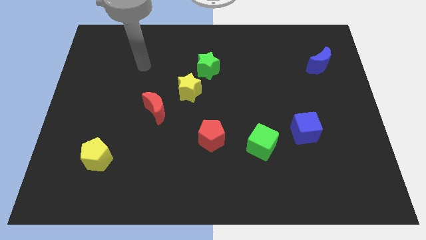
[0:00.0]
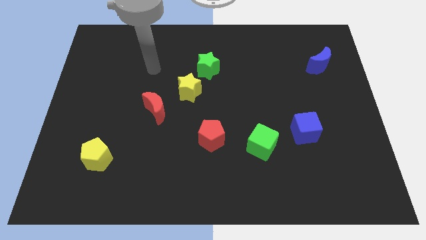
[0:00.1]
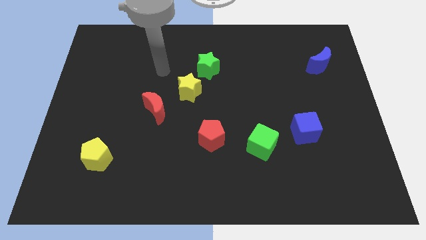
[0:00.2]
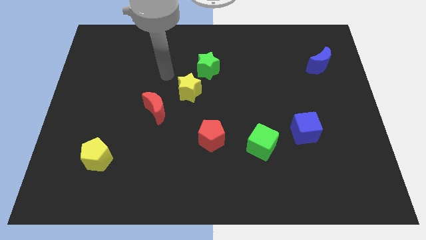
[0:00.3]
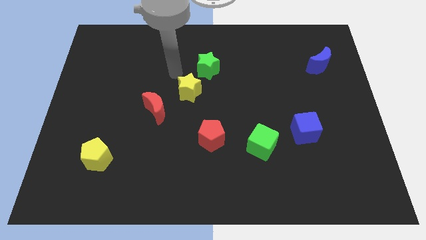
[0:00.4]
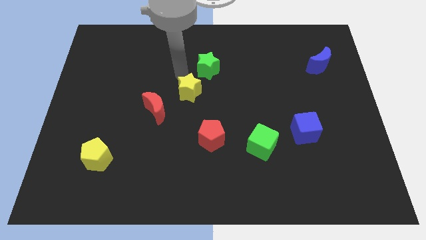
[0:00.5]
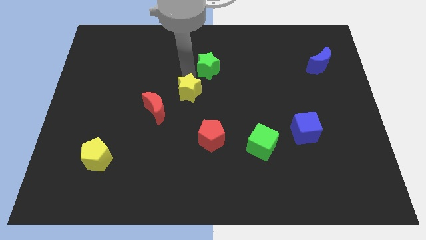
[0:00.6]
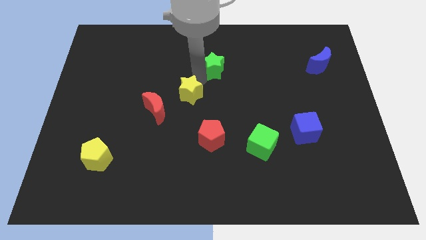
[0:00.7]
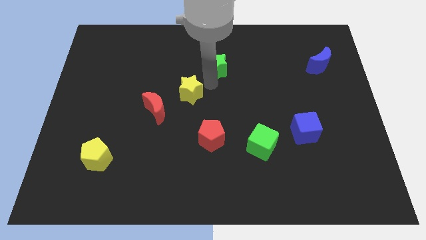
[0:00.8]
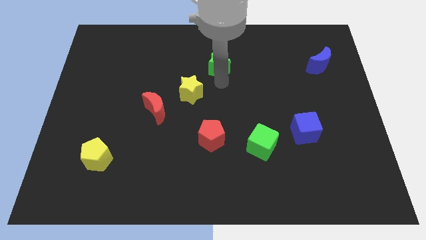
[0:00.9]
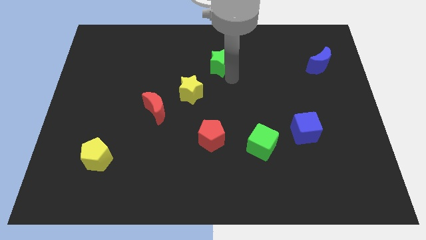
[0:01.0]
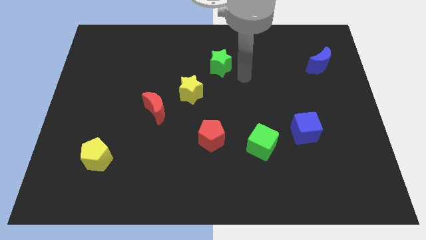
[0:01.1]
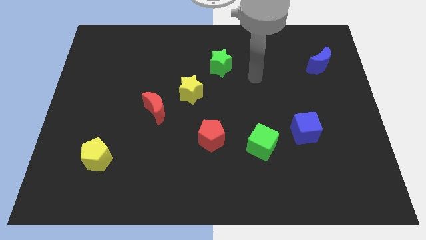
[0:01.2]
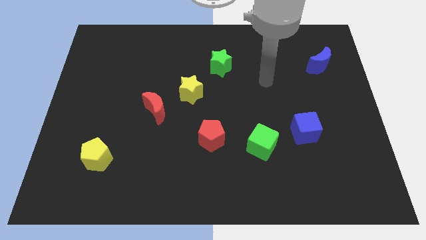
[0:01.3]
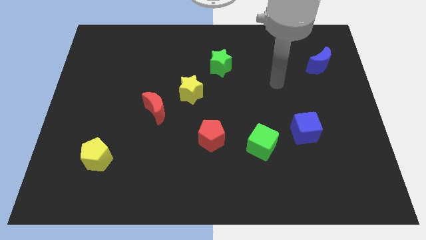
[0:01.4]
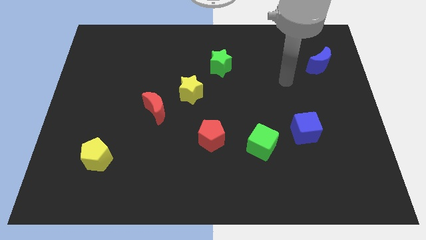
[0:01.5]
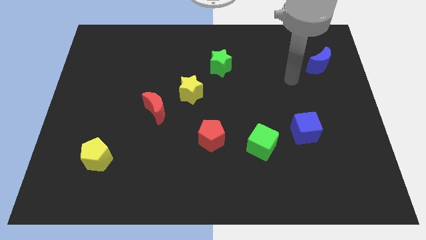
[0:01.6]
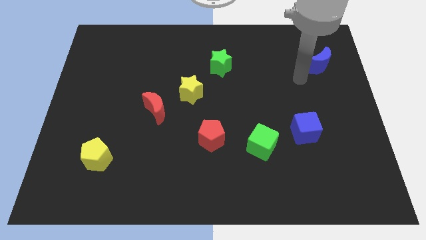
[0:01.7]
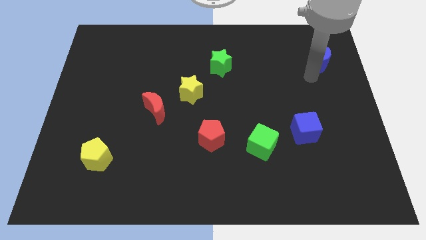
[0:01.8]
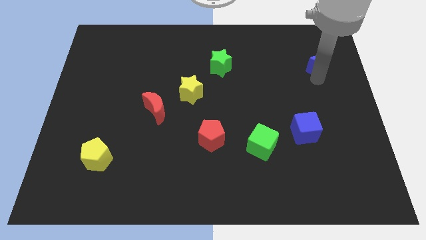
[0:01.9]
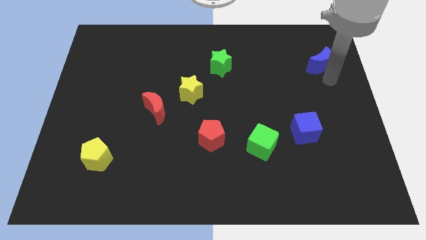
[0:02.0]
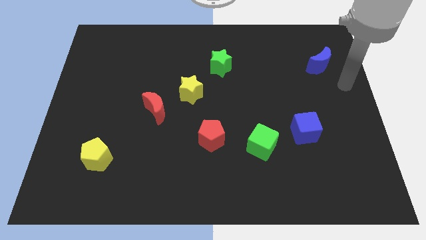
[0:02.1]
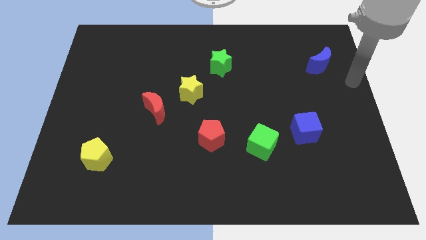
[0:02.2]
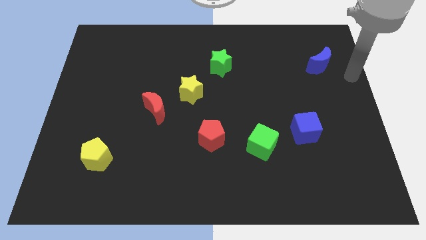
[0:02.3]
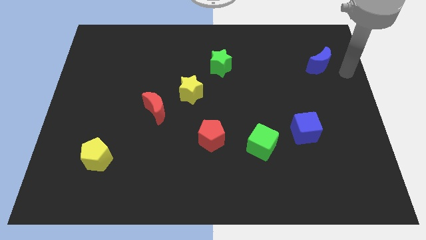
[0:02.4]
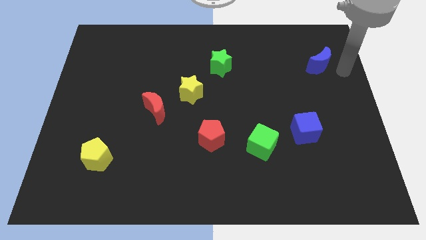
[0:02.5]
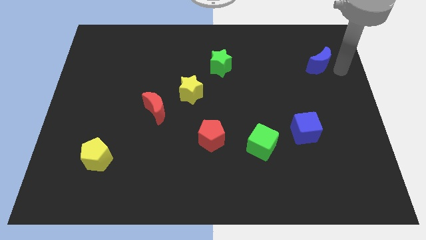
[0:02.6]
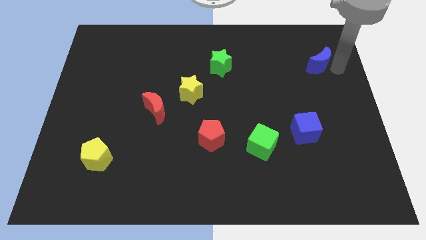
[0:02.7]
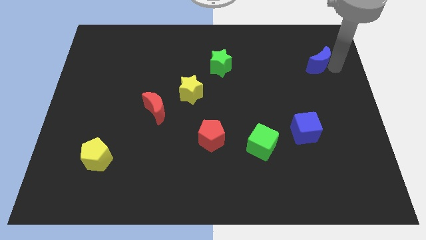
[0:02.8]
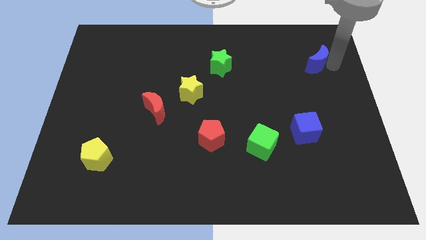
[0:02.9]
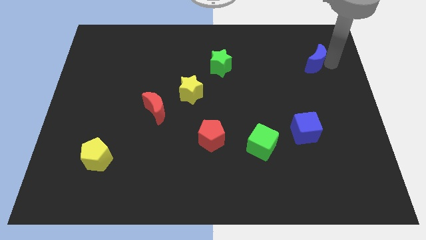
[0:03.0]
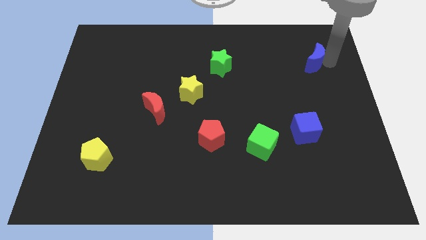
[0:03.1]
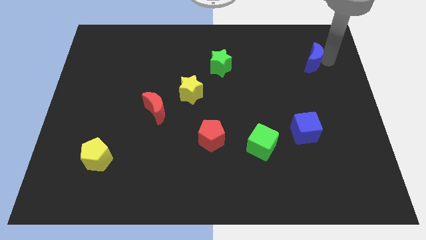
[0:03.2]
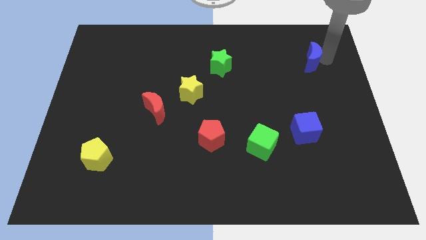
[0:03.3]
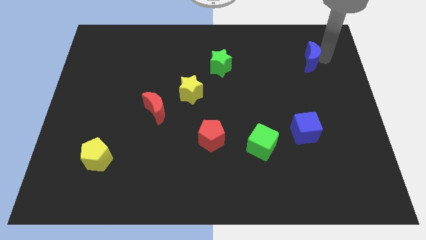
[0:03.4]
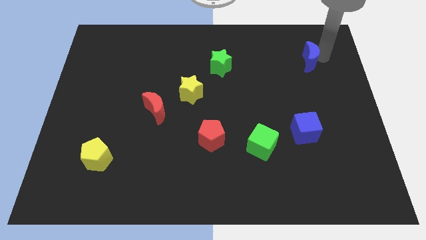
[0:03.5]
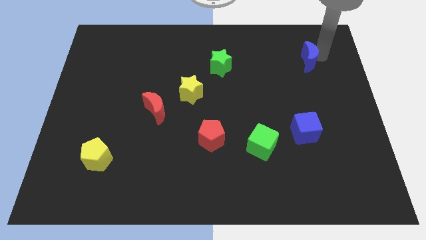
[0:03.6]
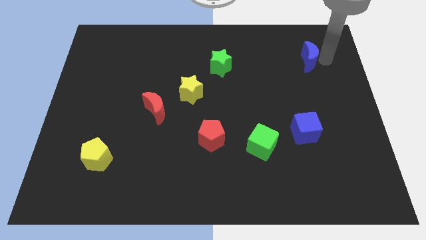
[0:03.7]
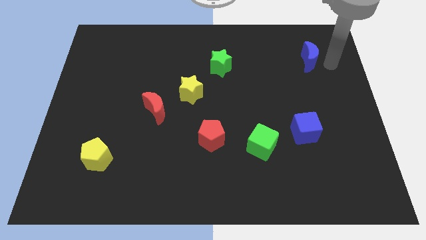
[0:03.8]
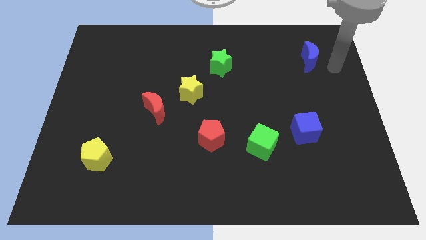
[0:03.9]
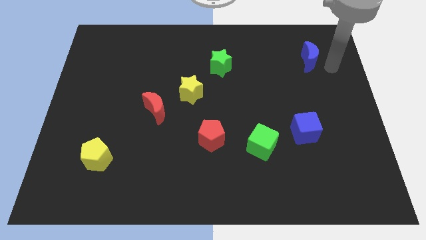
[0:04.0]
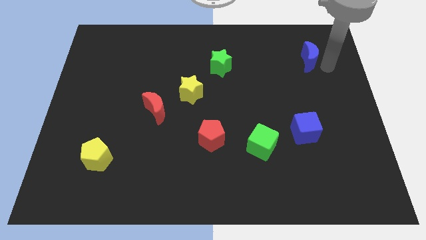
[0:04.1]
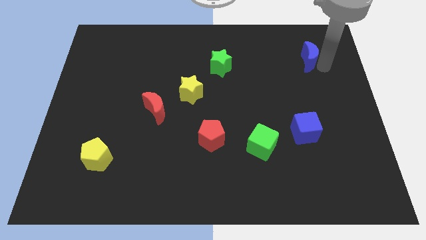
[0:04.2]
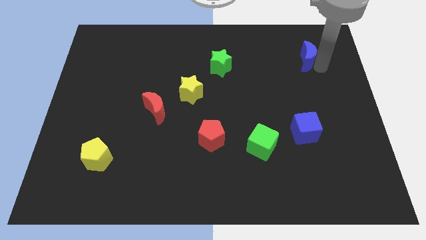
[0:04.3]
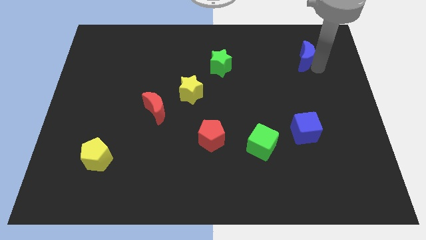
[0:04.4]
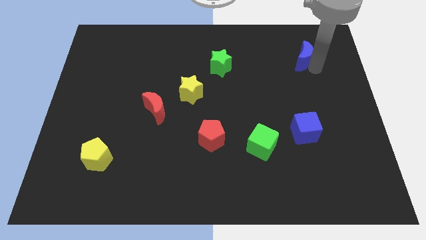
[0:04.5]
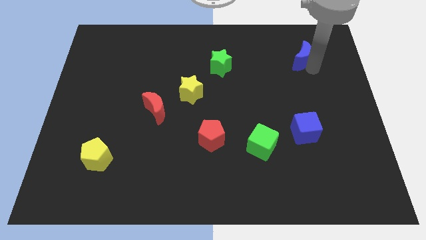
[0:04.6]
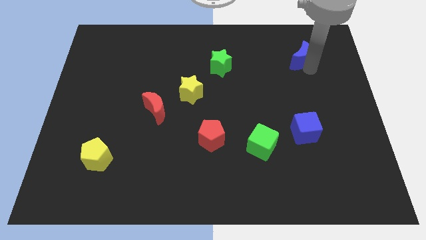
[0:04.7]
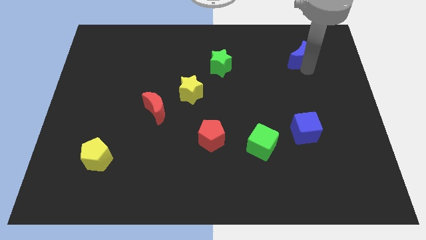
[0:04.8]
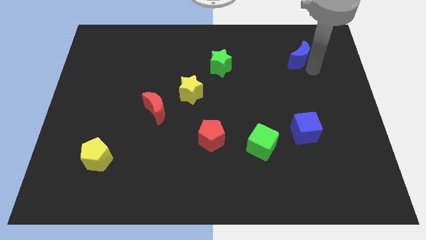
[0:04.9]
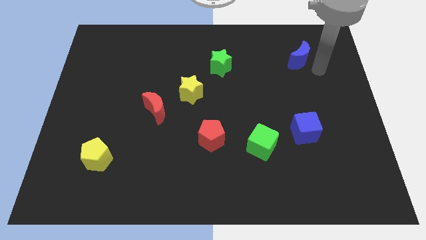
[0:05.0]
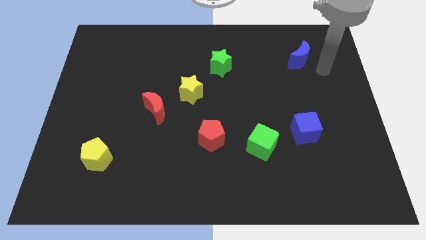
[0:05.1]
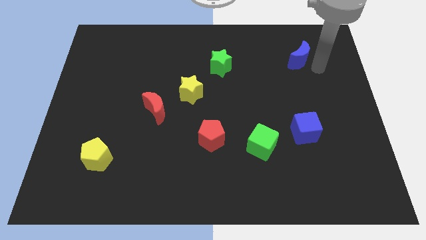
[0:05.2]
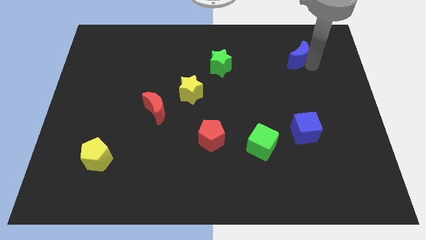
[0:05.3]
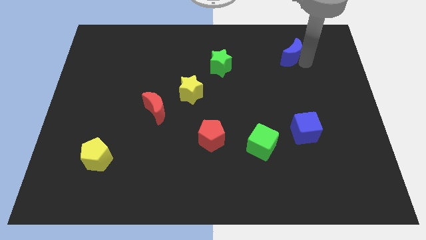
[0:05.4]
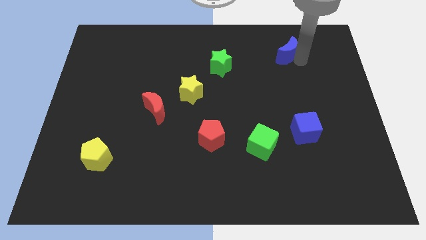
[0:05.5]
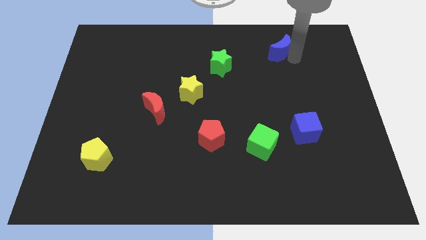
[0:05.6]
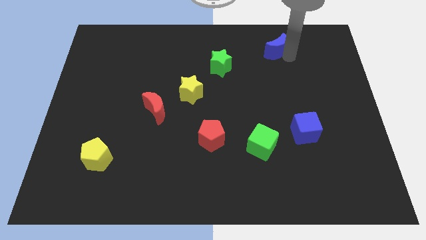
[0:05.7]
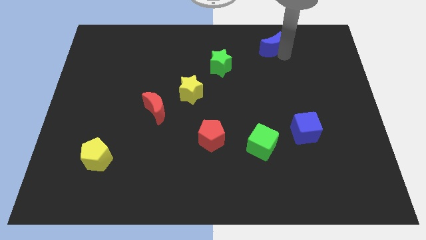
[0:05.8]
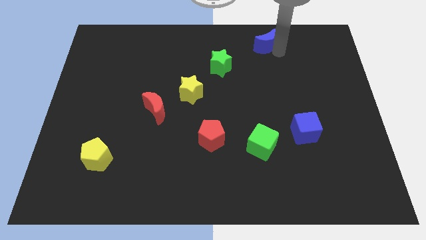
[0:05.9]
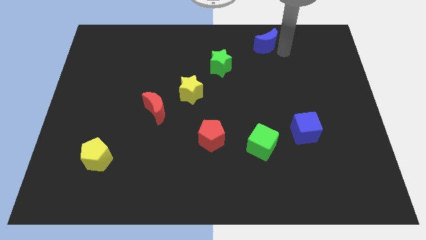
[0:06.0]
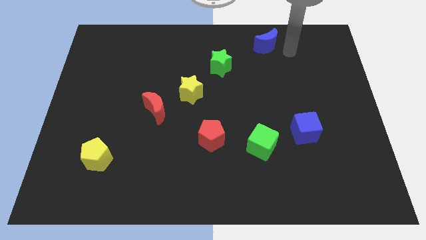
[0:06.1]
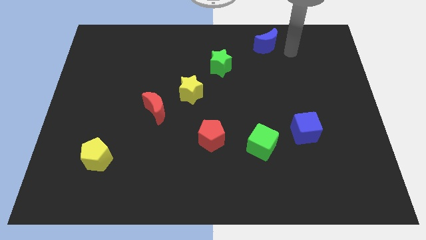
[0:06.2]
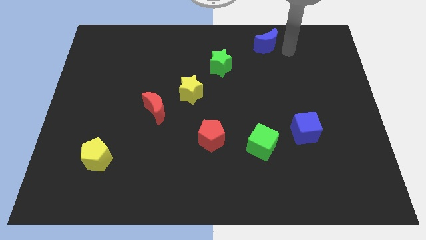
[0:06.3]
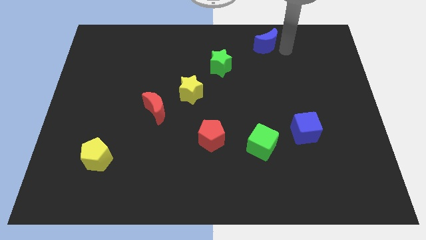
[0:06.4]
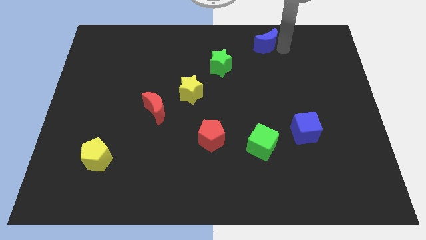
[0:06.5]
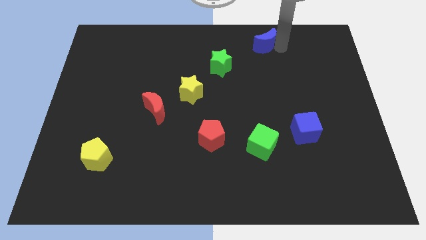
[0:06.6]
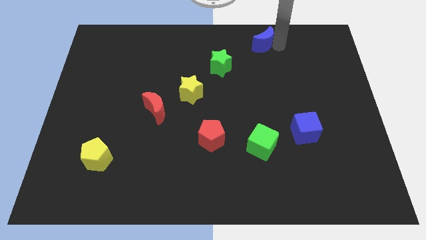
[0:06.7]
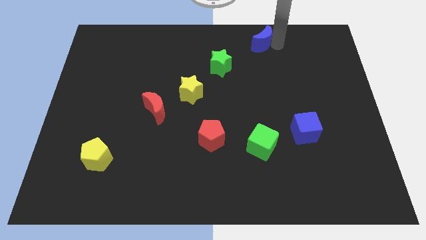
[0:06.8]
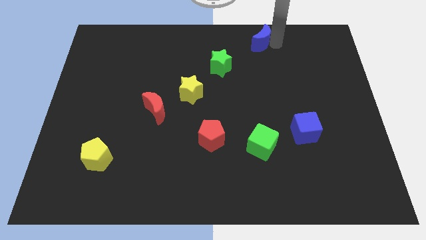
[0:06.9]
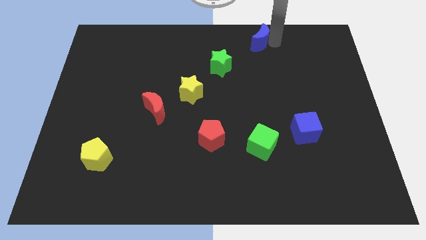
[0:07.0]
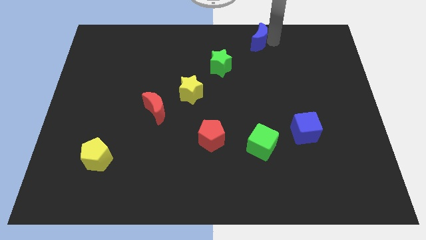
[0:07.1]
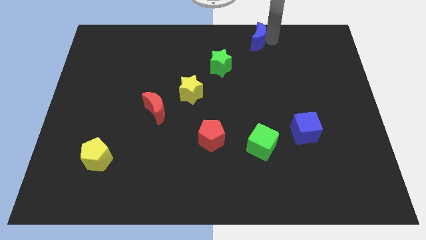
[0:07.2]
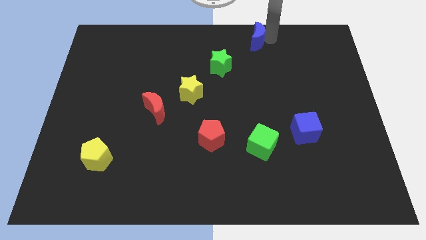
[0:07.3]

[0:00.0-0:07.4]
slide the blue moon to the top side
